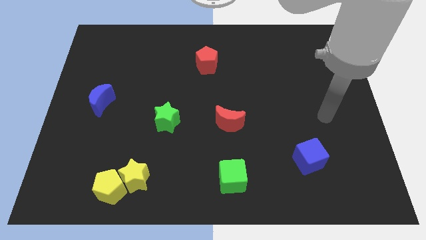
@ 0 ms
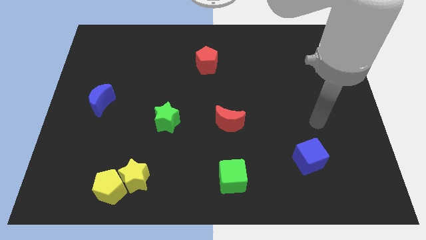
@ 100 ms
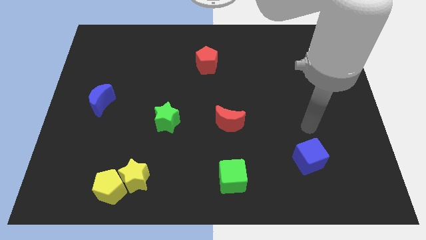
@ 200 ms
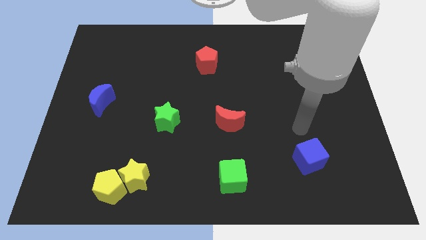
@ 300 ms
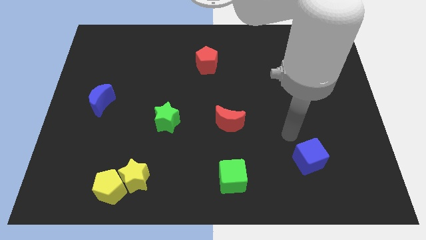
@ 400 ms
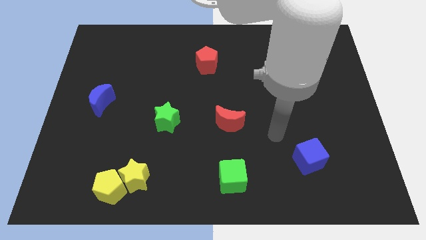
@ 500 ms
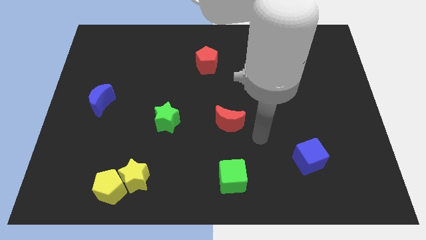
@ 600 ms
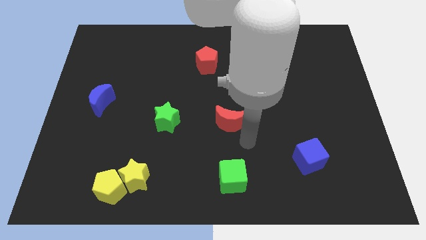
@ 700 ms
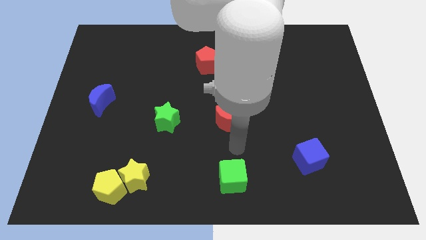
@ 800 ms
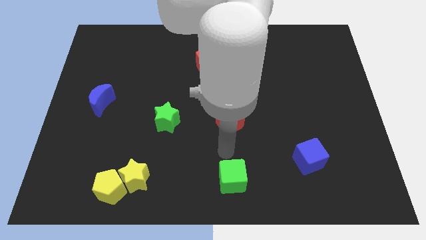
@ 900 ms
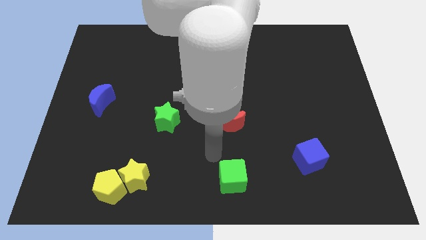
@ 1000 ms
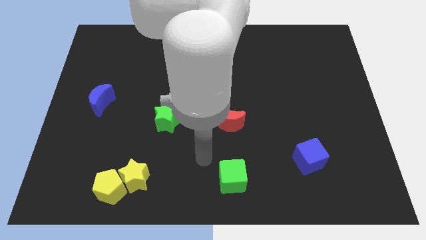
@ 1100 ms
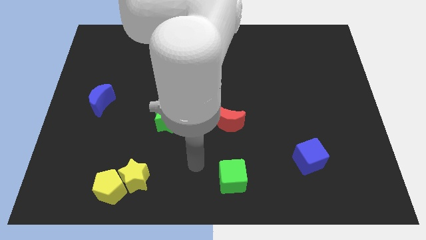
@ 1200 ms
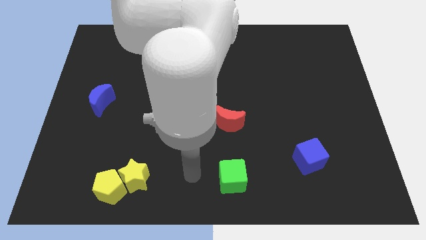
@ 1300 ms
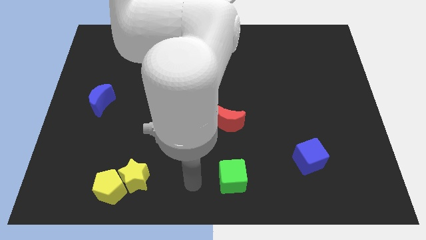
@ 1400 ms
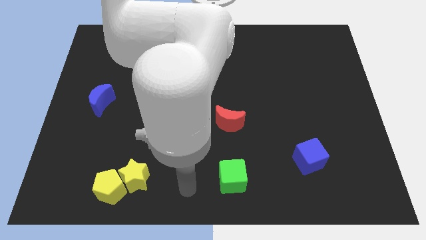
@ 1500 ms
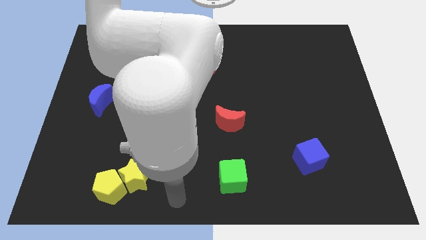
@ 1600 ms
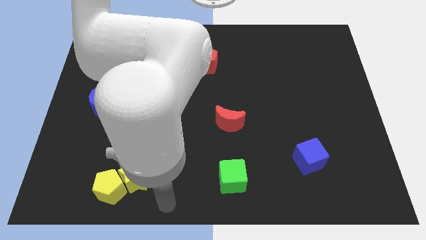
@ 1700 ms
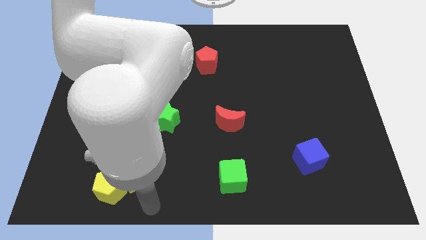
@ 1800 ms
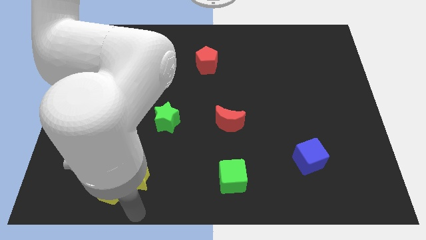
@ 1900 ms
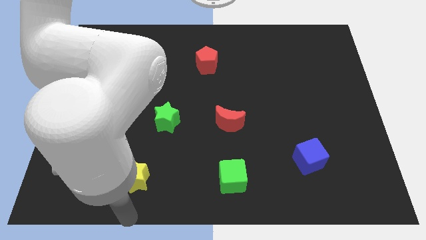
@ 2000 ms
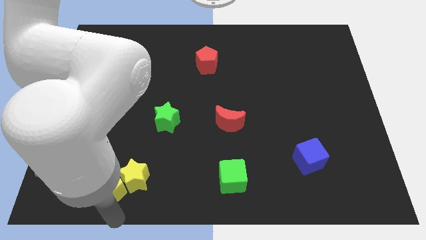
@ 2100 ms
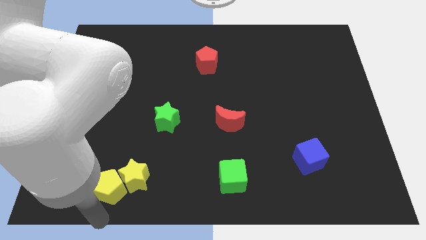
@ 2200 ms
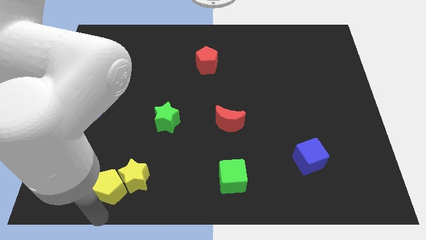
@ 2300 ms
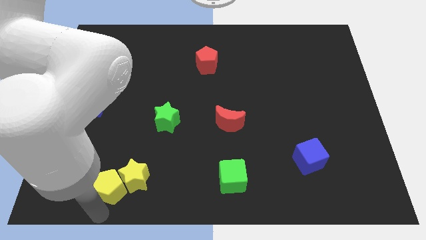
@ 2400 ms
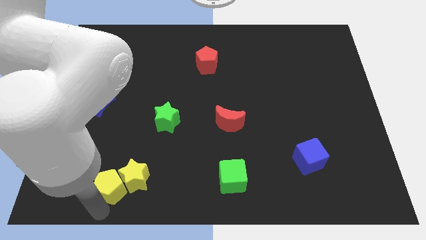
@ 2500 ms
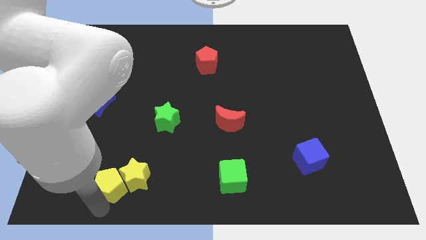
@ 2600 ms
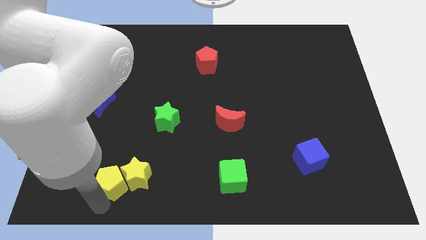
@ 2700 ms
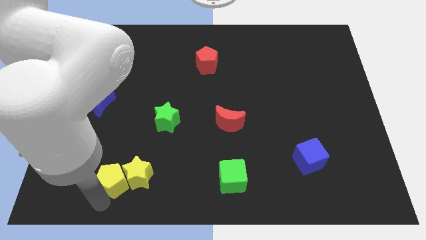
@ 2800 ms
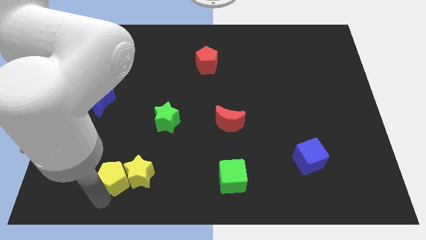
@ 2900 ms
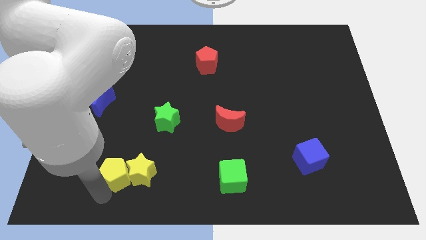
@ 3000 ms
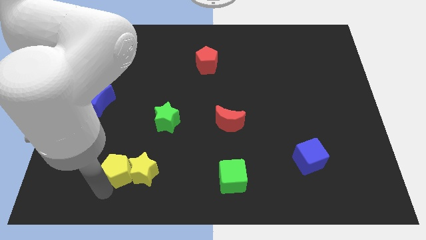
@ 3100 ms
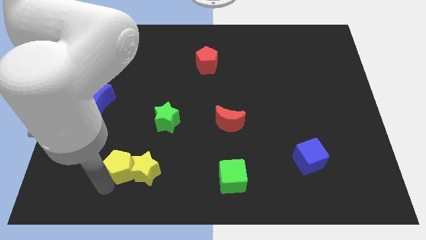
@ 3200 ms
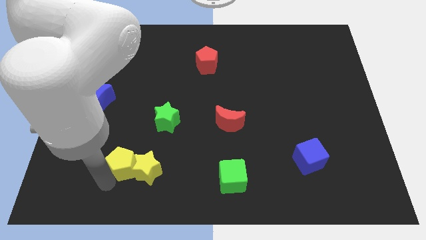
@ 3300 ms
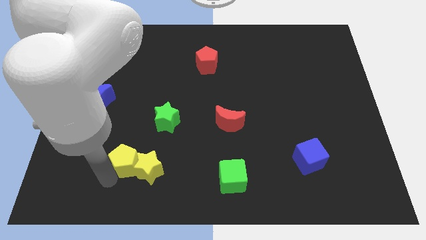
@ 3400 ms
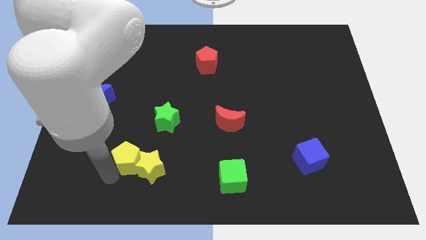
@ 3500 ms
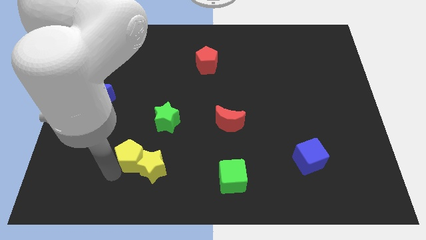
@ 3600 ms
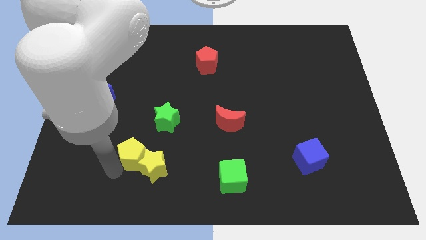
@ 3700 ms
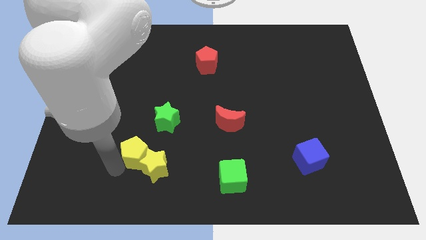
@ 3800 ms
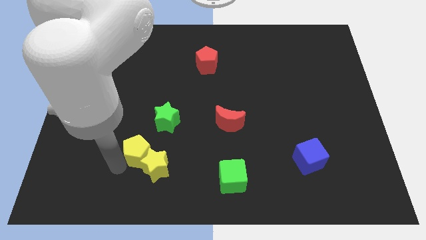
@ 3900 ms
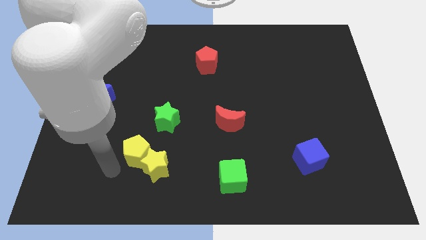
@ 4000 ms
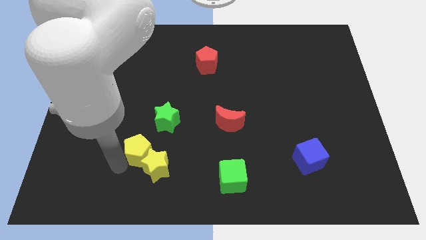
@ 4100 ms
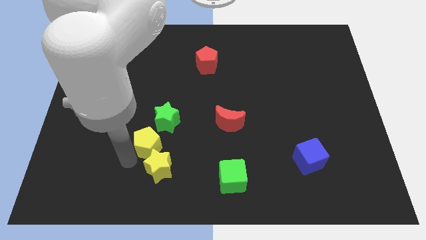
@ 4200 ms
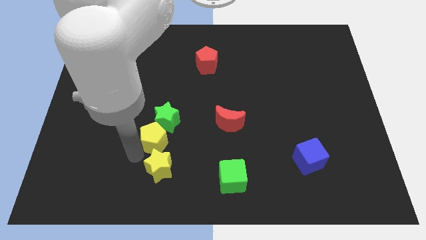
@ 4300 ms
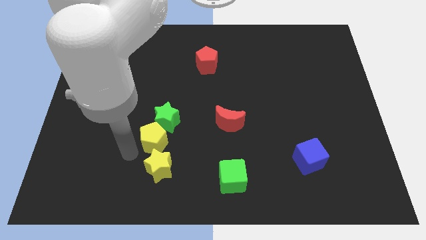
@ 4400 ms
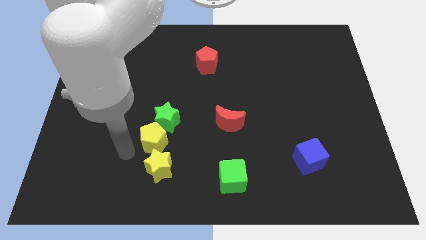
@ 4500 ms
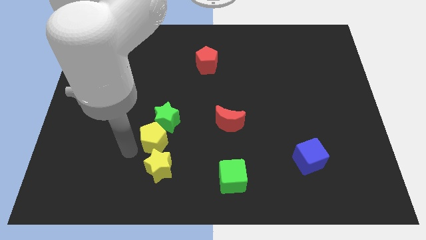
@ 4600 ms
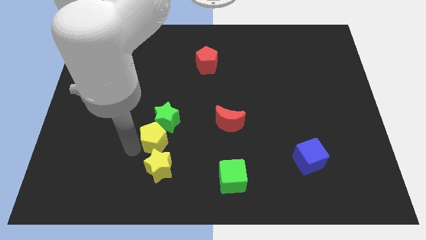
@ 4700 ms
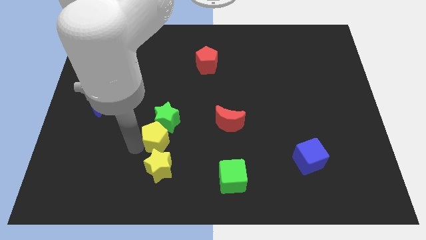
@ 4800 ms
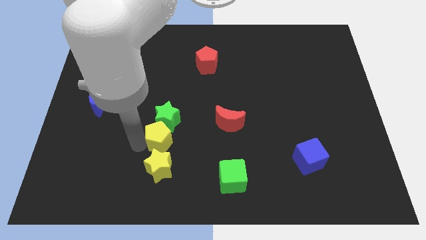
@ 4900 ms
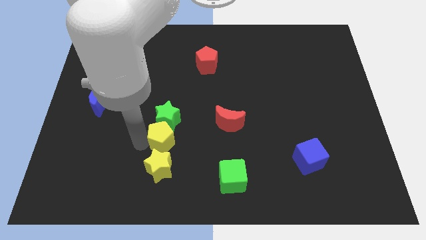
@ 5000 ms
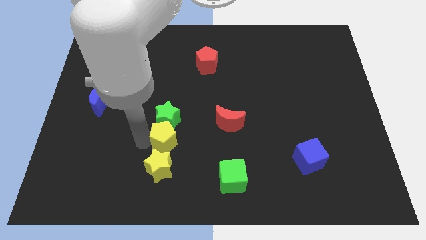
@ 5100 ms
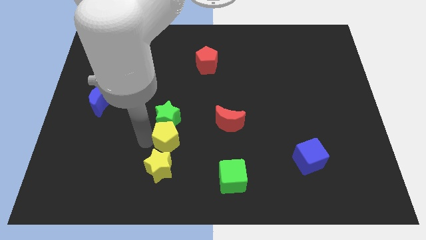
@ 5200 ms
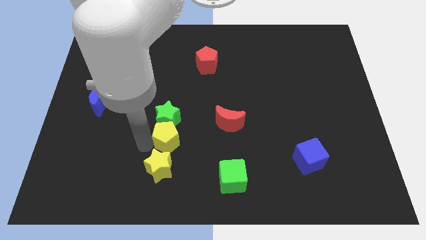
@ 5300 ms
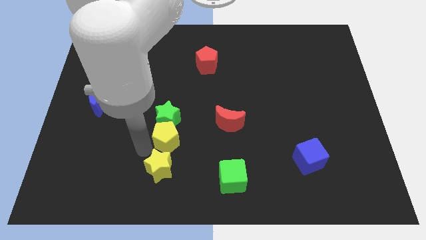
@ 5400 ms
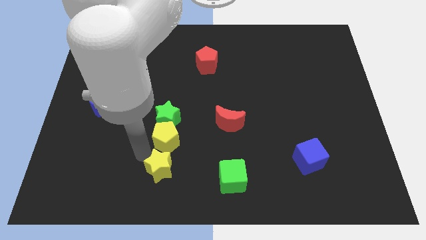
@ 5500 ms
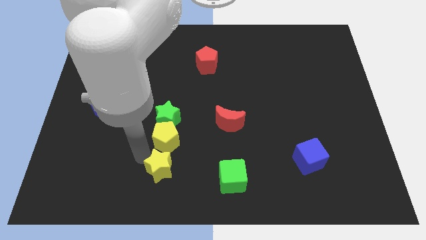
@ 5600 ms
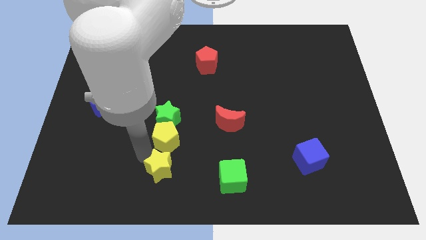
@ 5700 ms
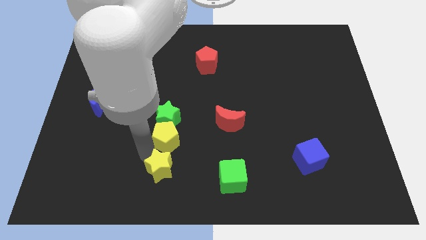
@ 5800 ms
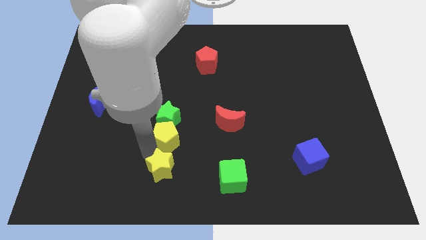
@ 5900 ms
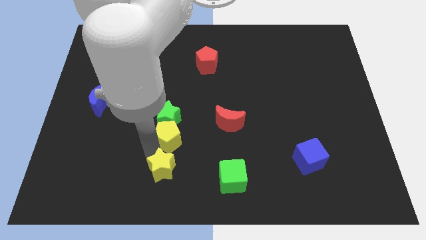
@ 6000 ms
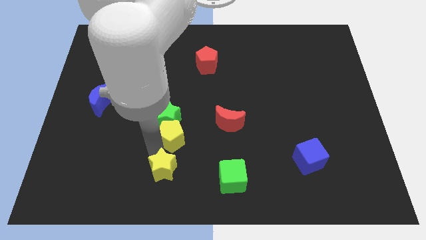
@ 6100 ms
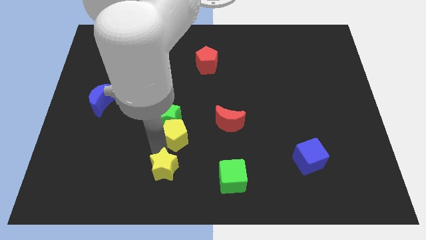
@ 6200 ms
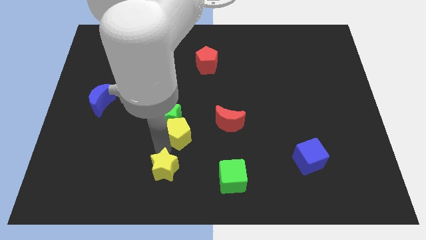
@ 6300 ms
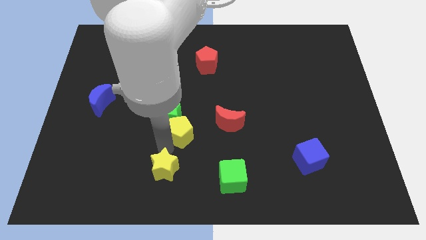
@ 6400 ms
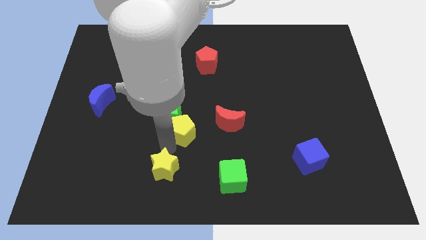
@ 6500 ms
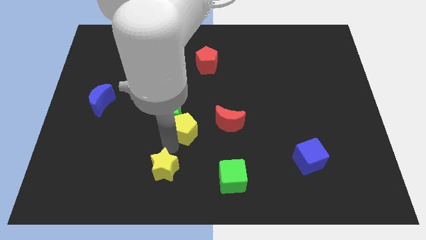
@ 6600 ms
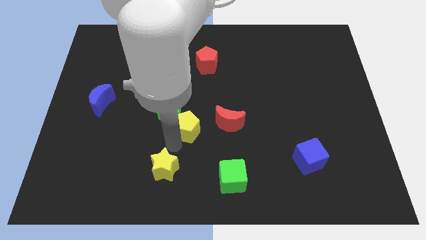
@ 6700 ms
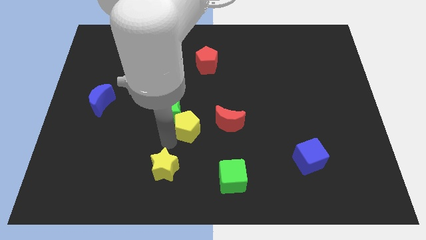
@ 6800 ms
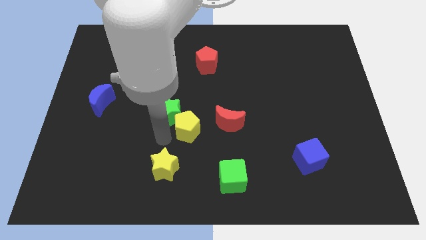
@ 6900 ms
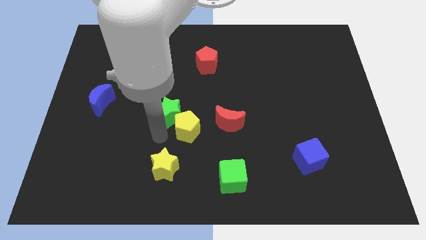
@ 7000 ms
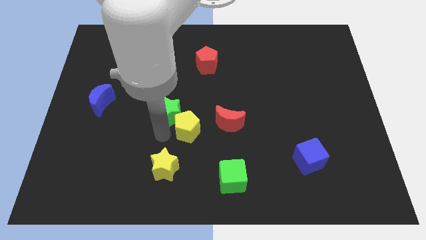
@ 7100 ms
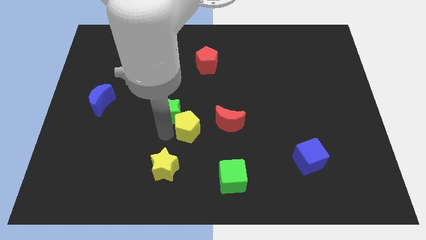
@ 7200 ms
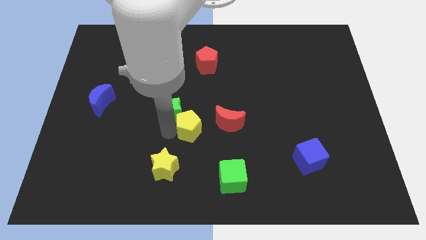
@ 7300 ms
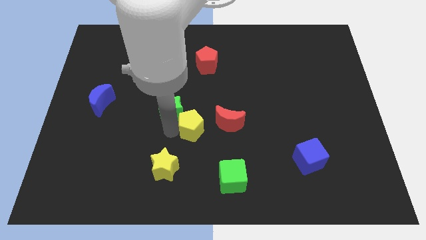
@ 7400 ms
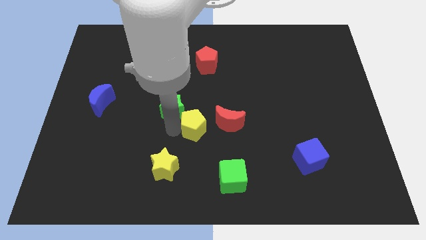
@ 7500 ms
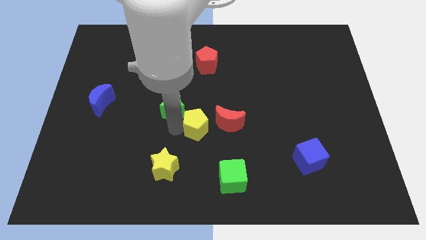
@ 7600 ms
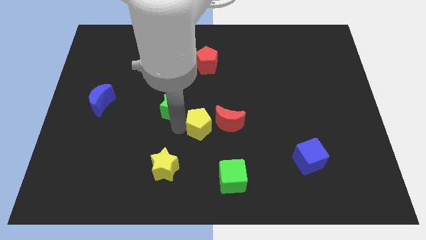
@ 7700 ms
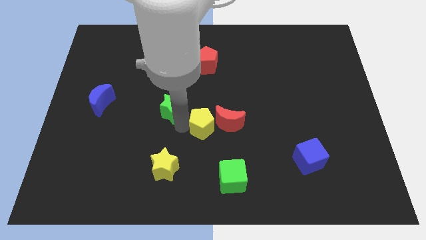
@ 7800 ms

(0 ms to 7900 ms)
slide the yellow pentagon towards the red moon
